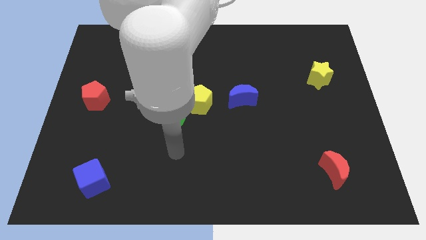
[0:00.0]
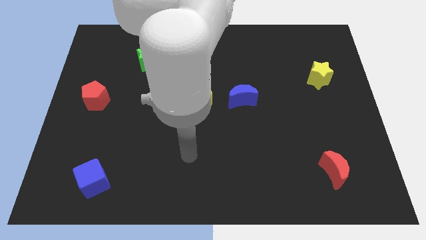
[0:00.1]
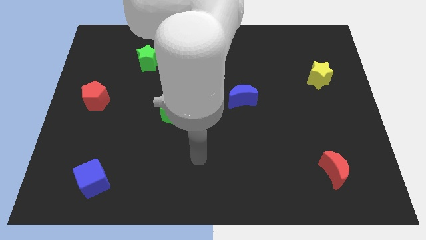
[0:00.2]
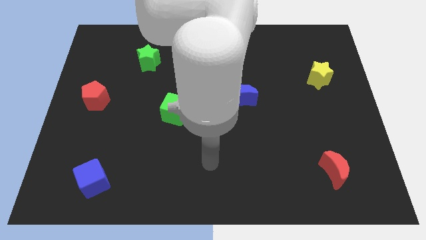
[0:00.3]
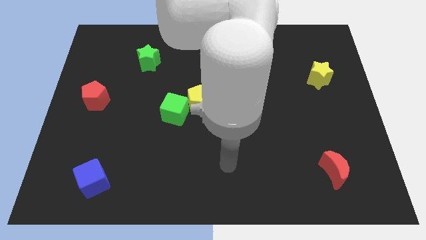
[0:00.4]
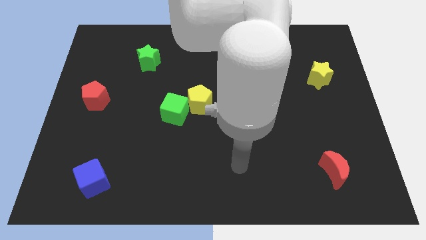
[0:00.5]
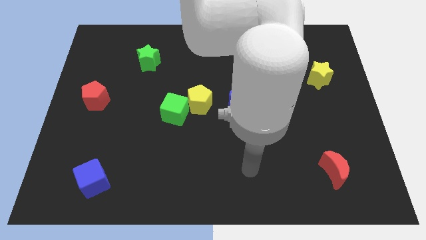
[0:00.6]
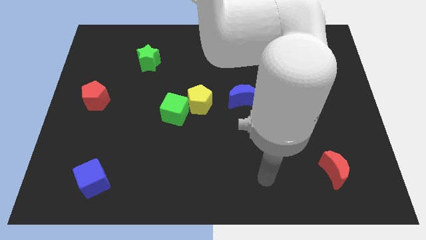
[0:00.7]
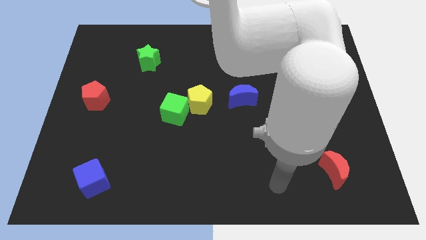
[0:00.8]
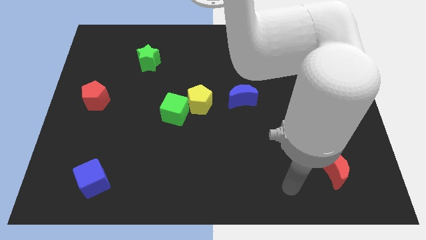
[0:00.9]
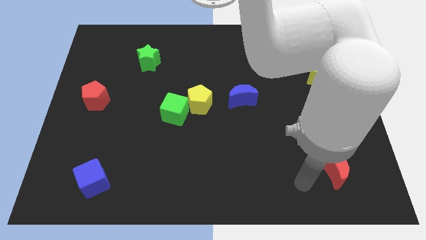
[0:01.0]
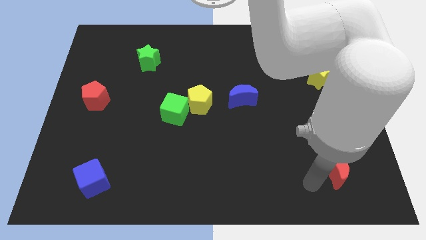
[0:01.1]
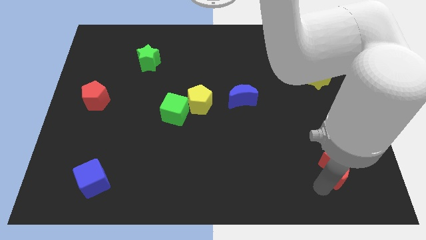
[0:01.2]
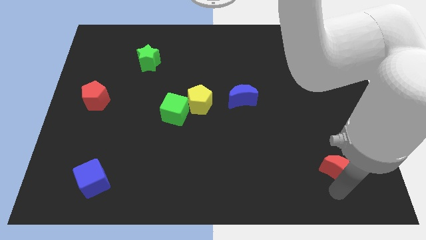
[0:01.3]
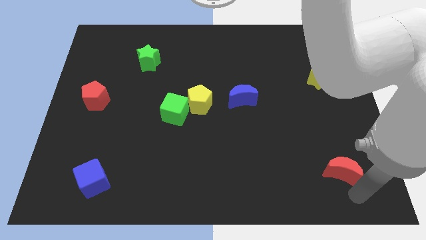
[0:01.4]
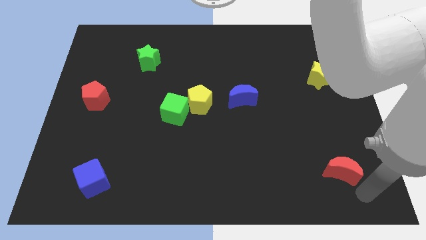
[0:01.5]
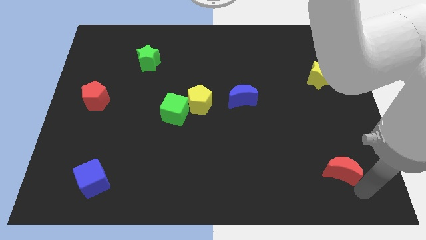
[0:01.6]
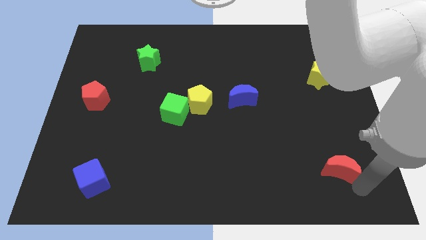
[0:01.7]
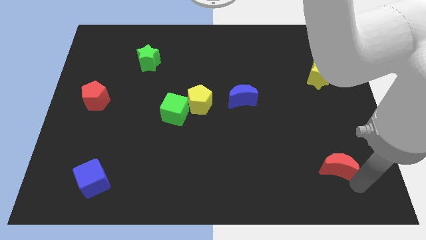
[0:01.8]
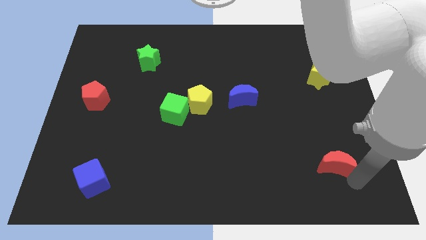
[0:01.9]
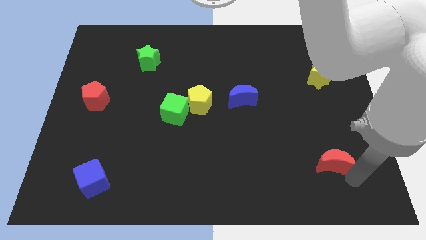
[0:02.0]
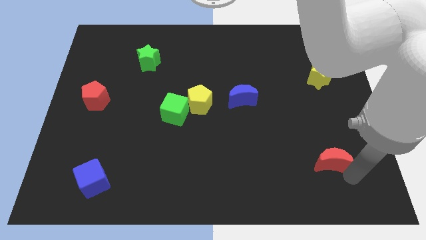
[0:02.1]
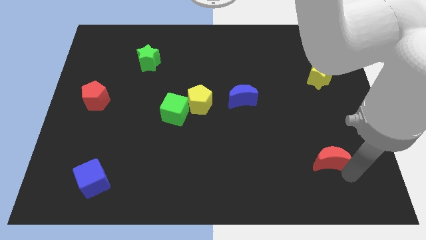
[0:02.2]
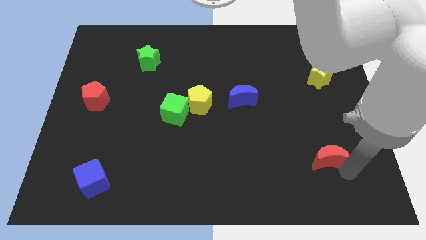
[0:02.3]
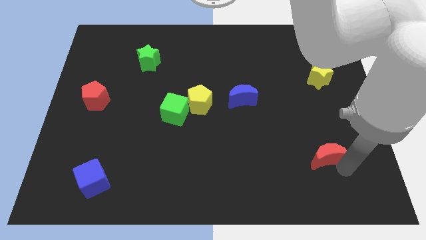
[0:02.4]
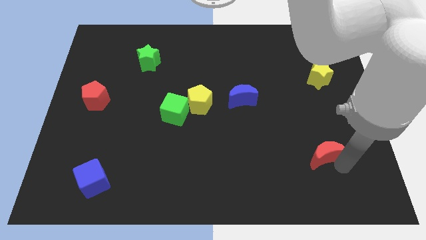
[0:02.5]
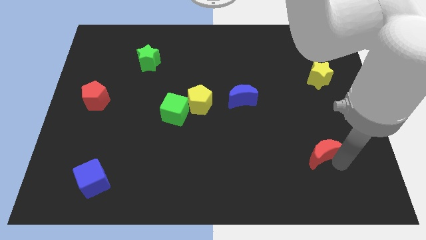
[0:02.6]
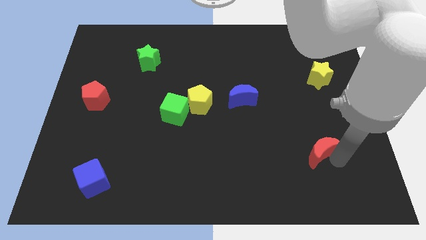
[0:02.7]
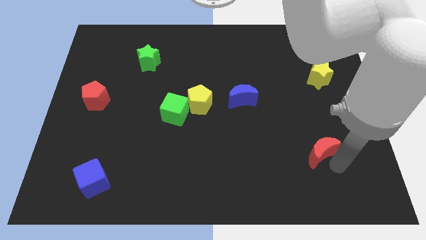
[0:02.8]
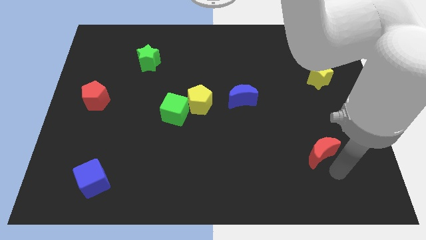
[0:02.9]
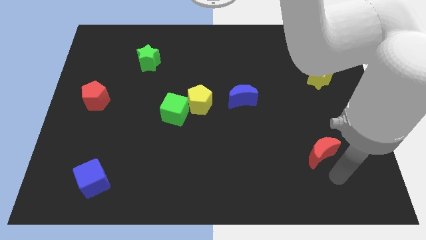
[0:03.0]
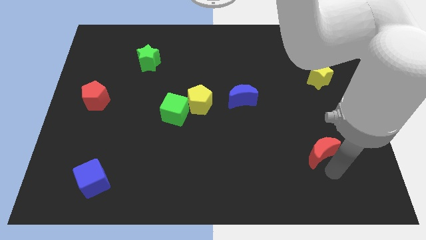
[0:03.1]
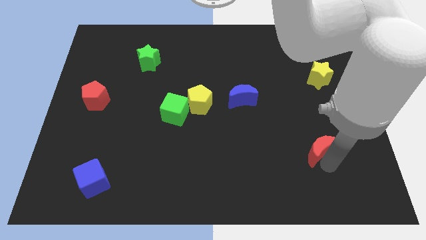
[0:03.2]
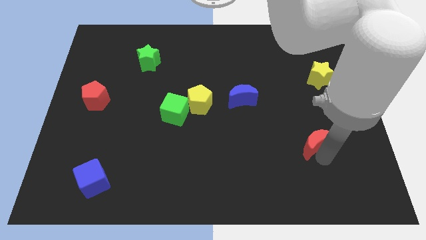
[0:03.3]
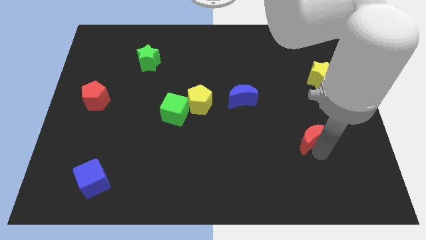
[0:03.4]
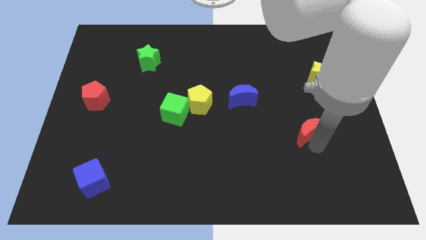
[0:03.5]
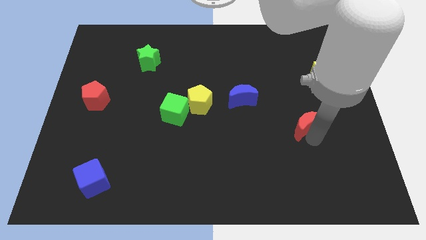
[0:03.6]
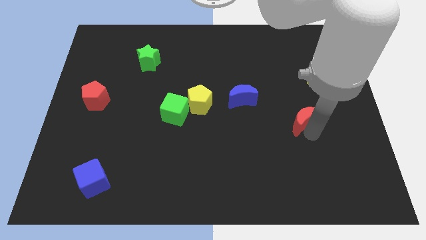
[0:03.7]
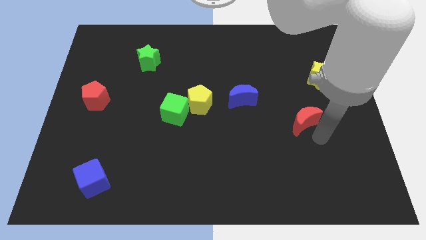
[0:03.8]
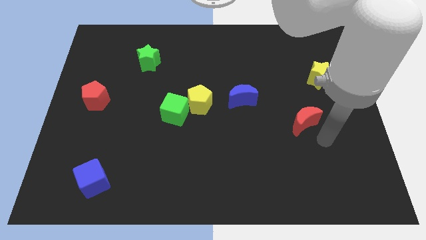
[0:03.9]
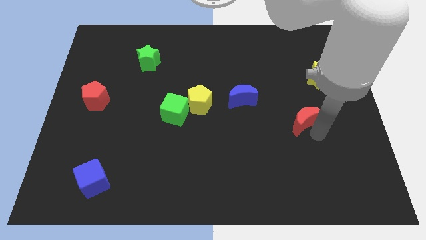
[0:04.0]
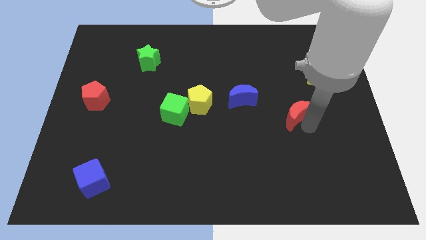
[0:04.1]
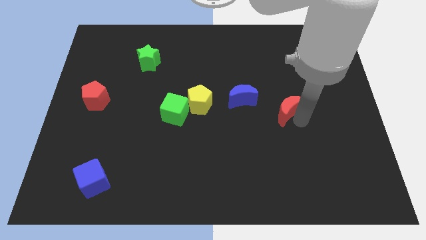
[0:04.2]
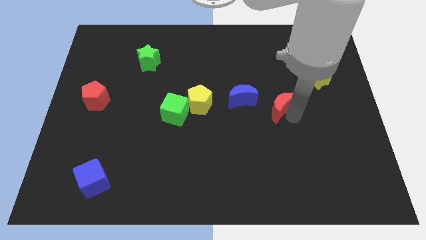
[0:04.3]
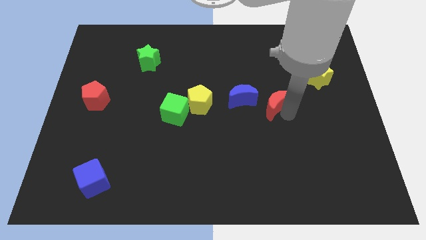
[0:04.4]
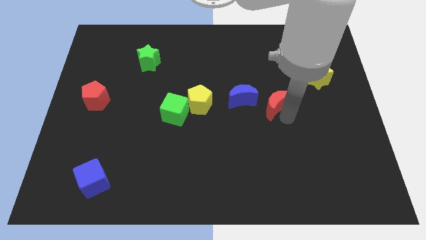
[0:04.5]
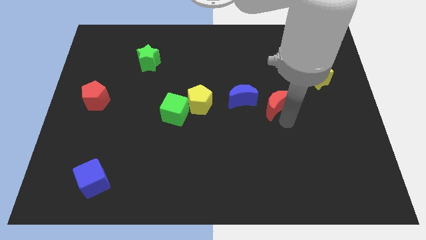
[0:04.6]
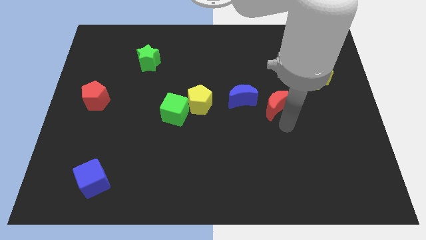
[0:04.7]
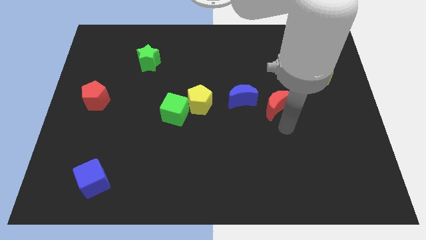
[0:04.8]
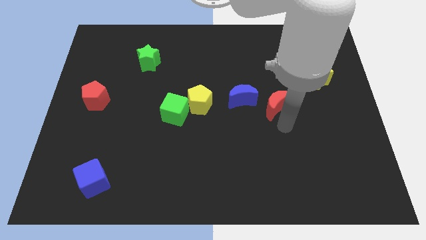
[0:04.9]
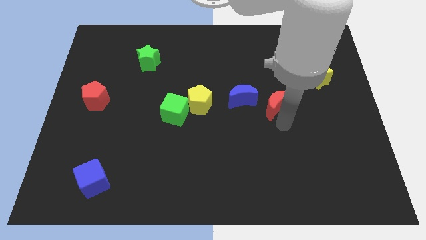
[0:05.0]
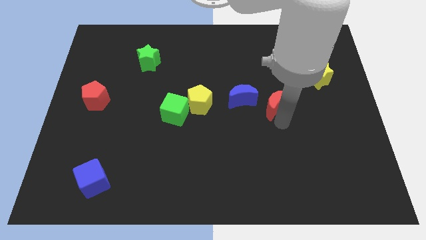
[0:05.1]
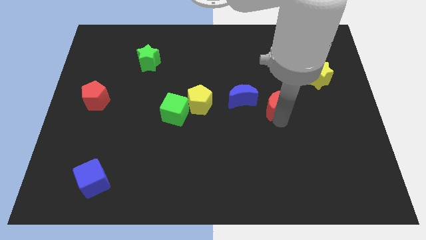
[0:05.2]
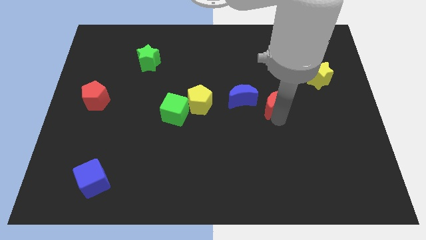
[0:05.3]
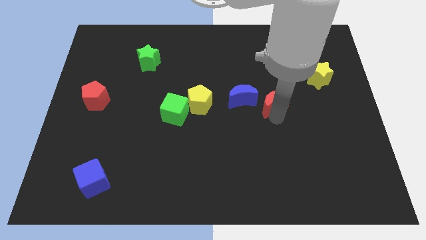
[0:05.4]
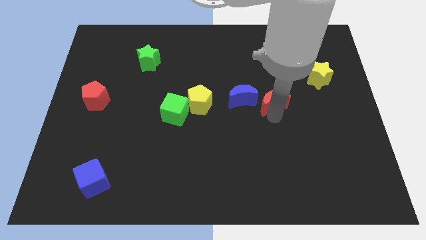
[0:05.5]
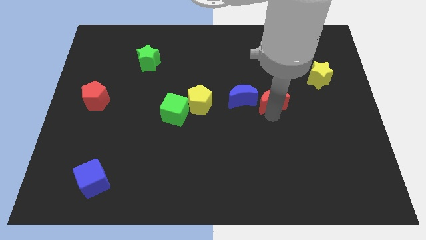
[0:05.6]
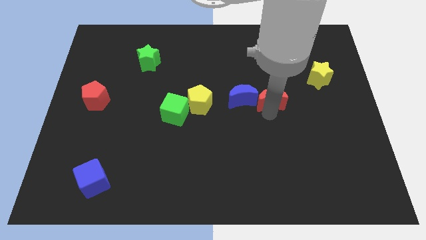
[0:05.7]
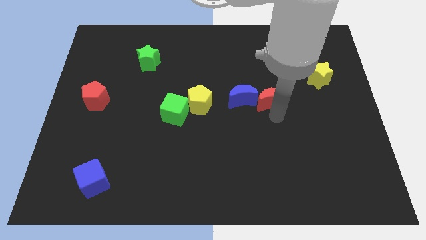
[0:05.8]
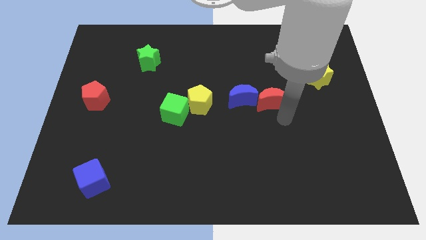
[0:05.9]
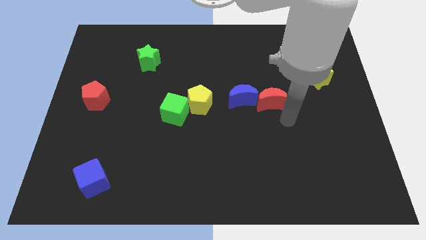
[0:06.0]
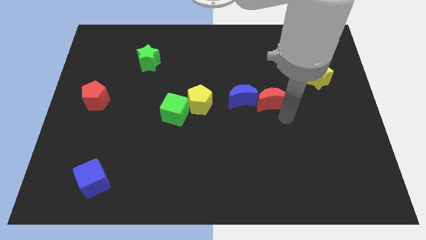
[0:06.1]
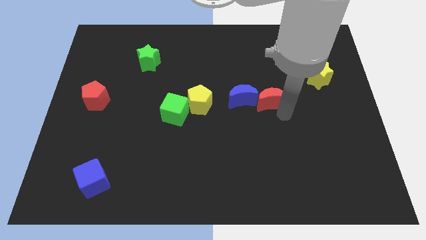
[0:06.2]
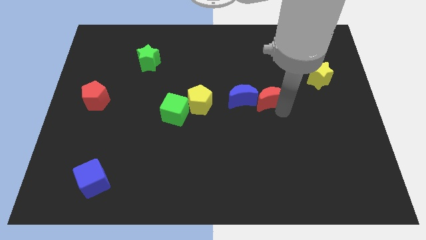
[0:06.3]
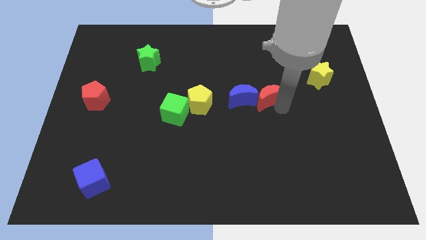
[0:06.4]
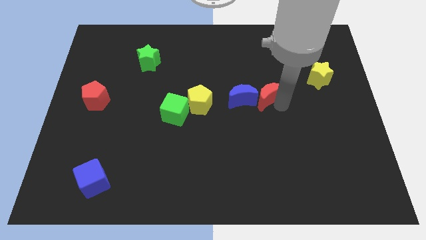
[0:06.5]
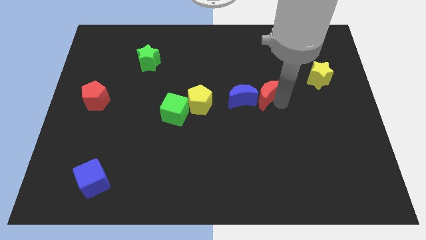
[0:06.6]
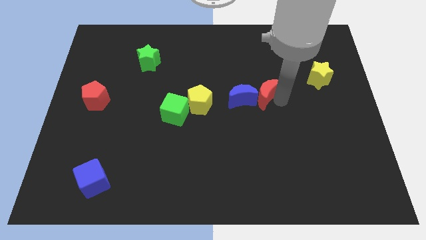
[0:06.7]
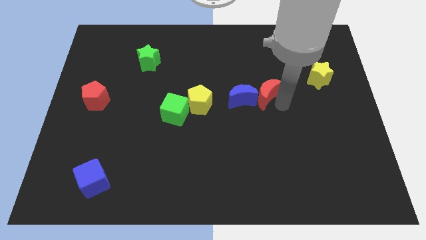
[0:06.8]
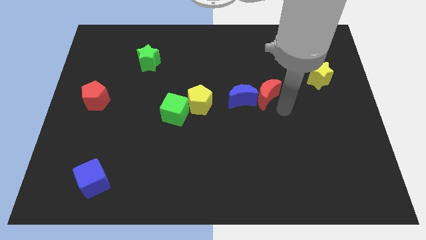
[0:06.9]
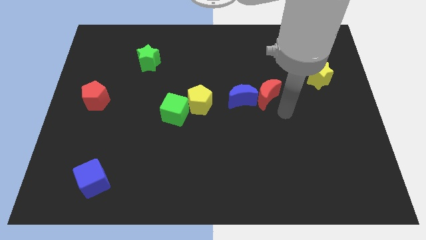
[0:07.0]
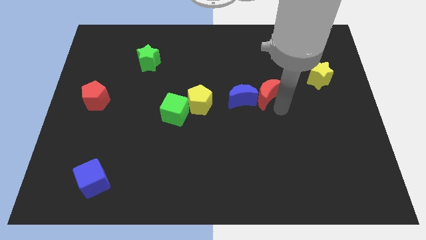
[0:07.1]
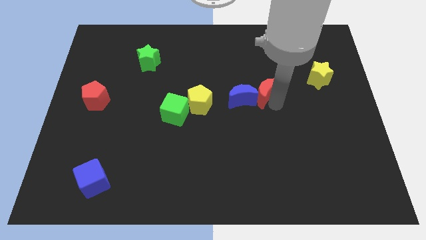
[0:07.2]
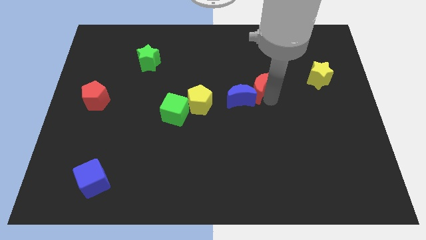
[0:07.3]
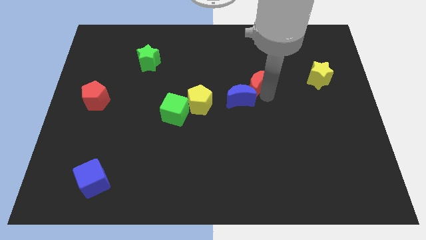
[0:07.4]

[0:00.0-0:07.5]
push the red moon above the blue moon

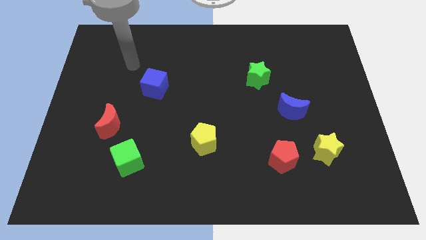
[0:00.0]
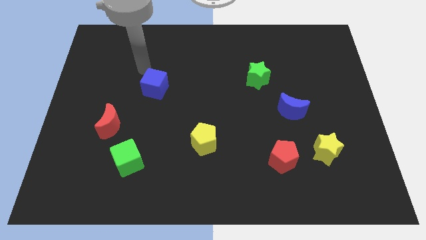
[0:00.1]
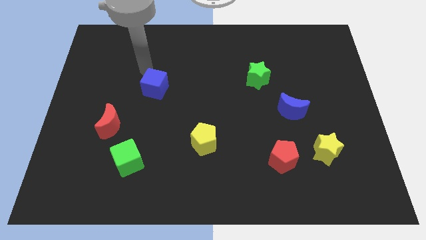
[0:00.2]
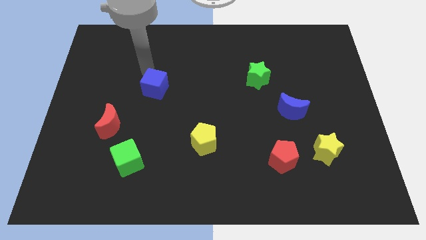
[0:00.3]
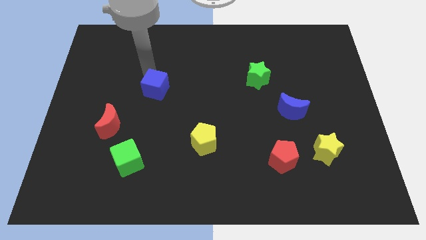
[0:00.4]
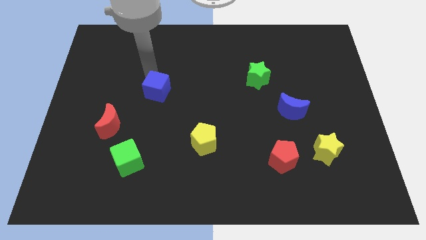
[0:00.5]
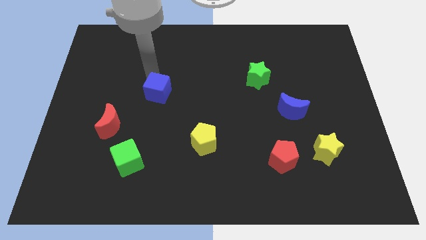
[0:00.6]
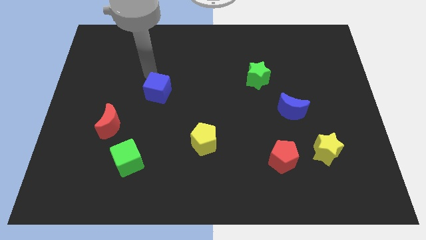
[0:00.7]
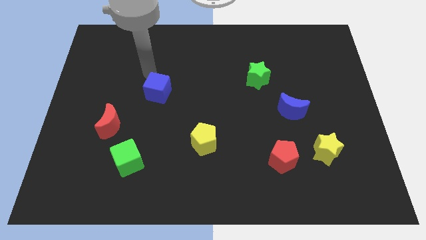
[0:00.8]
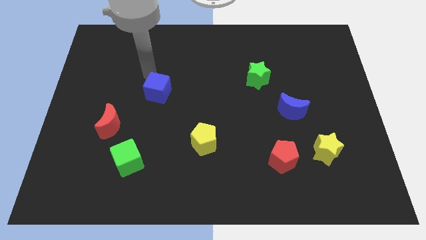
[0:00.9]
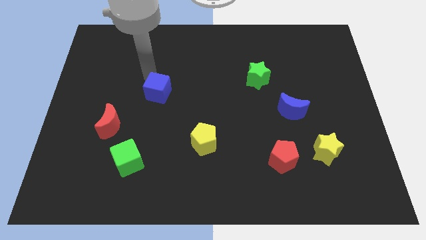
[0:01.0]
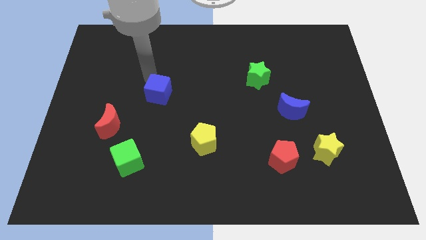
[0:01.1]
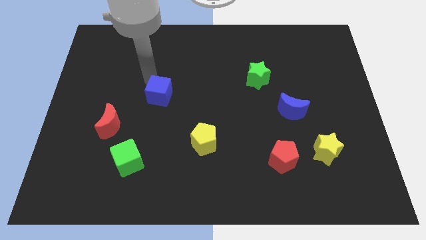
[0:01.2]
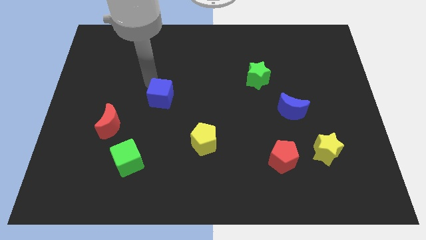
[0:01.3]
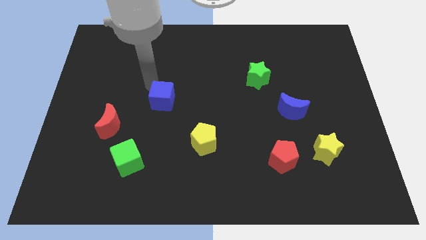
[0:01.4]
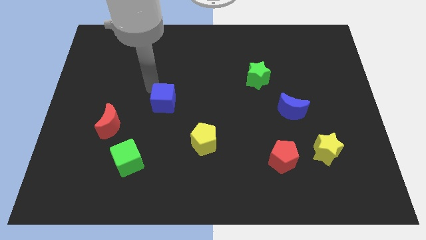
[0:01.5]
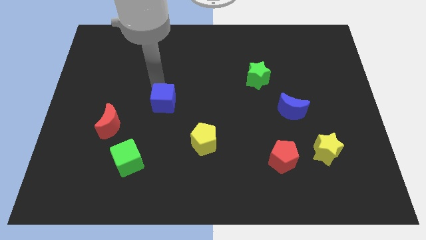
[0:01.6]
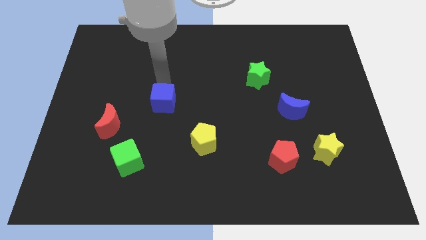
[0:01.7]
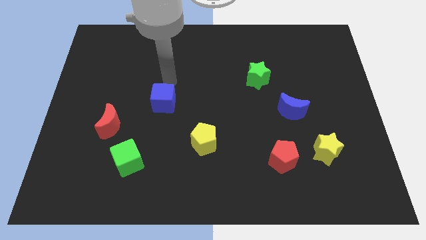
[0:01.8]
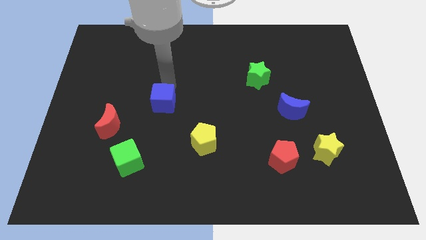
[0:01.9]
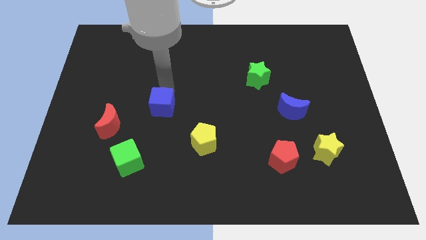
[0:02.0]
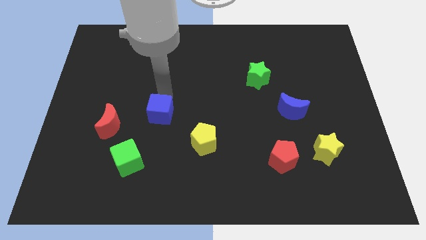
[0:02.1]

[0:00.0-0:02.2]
slide the blue cube to the right of the red moon
